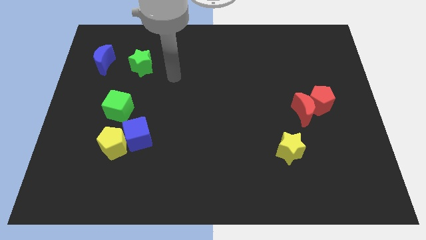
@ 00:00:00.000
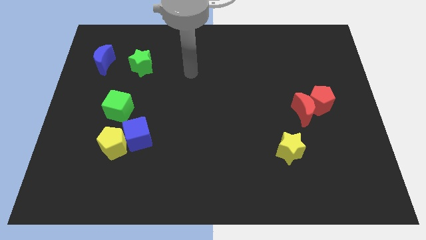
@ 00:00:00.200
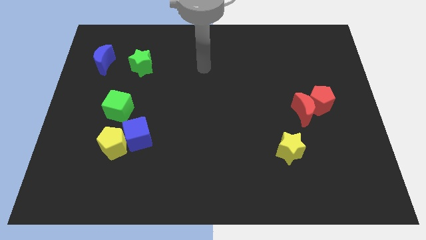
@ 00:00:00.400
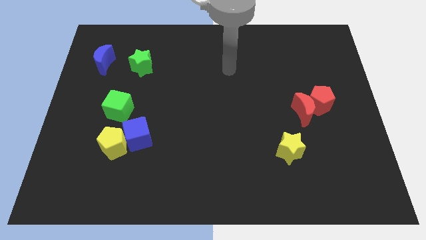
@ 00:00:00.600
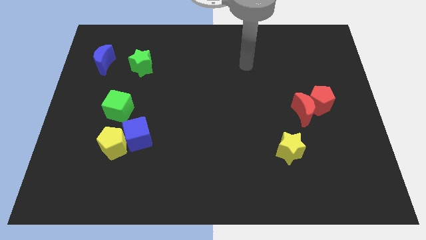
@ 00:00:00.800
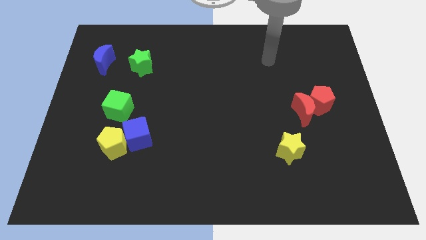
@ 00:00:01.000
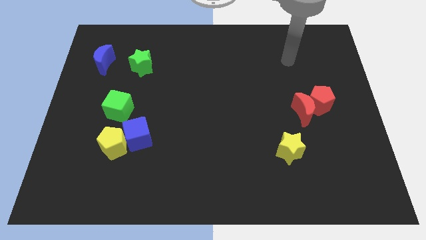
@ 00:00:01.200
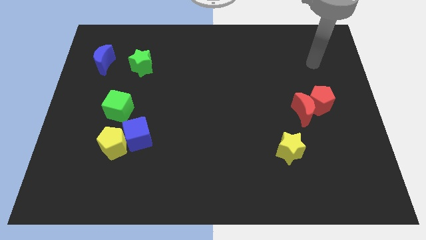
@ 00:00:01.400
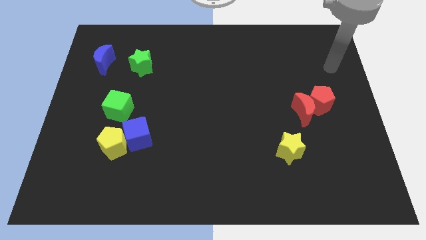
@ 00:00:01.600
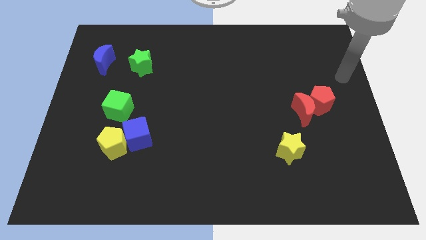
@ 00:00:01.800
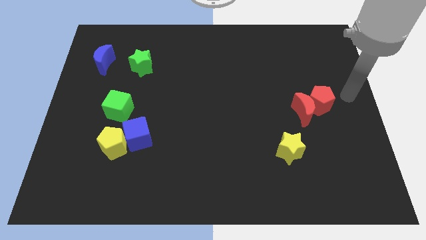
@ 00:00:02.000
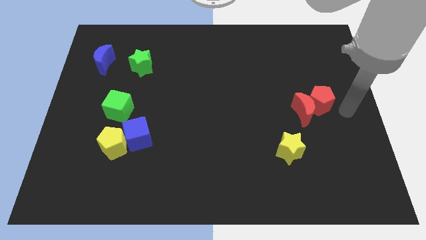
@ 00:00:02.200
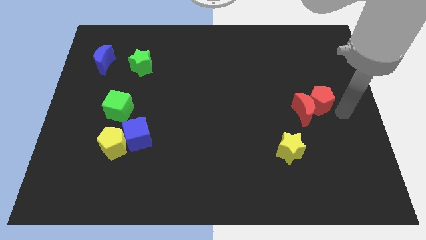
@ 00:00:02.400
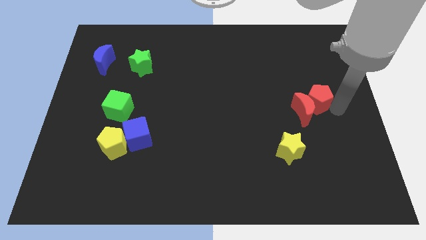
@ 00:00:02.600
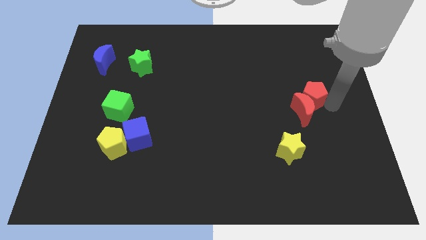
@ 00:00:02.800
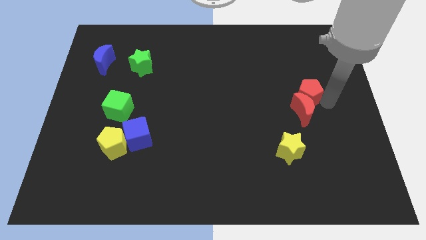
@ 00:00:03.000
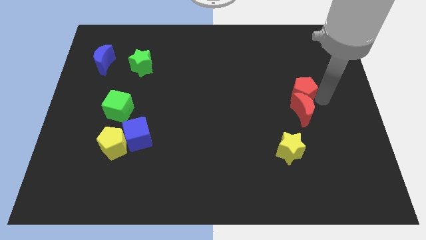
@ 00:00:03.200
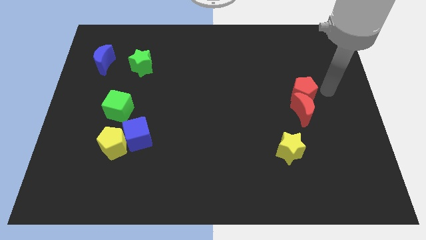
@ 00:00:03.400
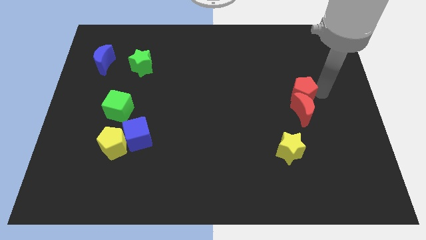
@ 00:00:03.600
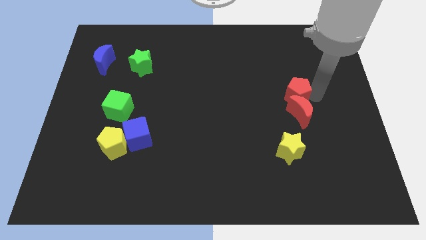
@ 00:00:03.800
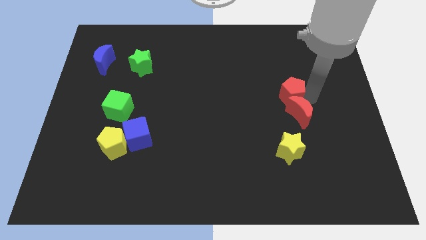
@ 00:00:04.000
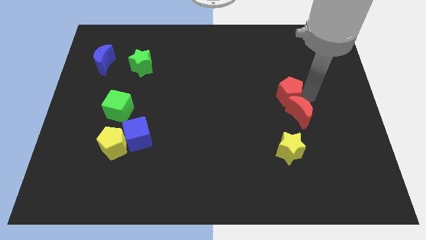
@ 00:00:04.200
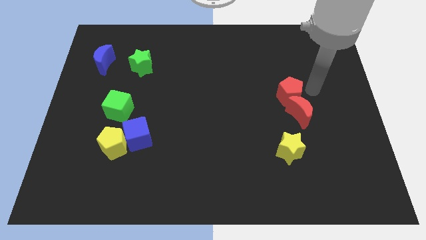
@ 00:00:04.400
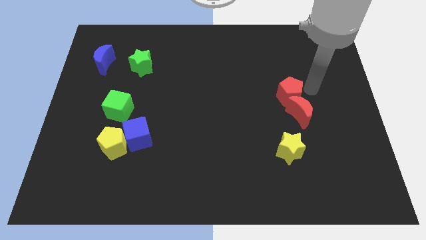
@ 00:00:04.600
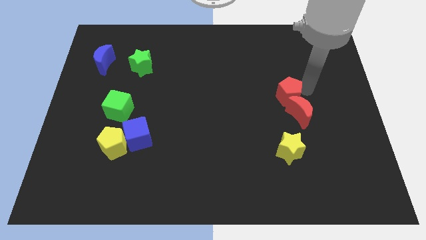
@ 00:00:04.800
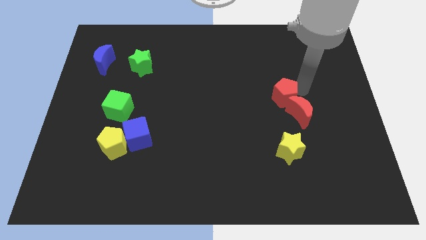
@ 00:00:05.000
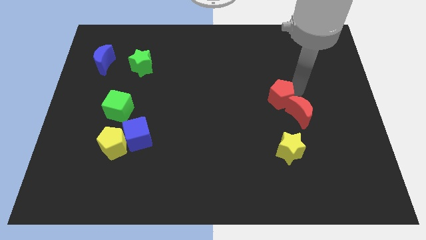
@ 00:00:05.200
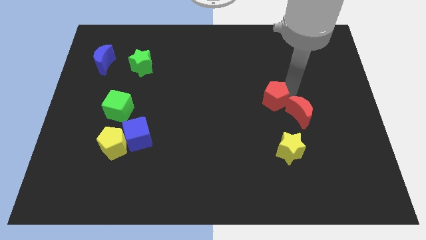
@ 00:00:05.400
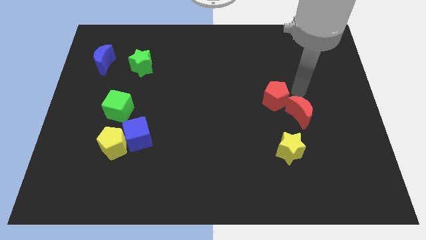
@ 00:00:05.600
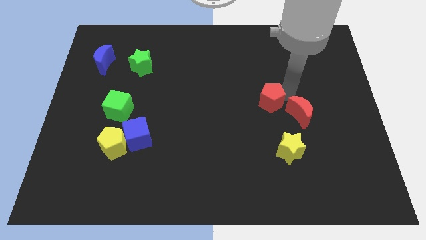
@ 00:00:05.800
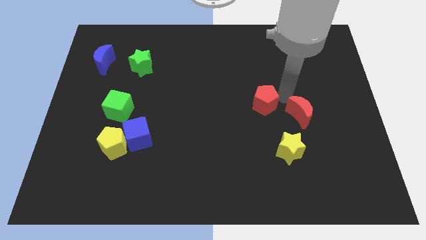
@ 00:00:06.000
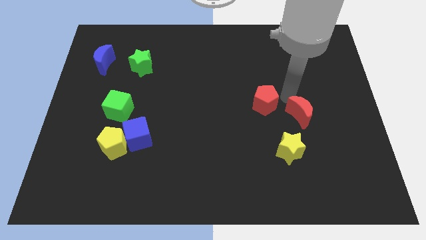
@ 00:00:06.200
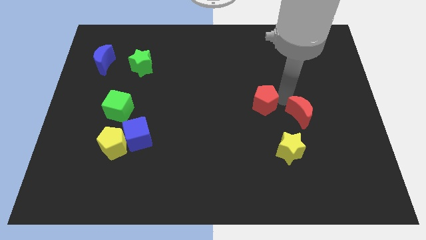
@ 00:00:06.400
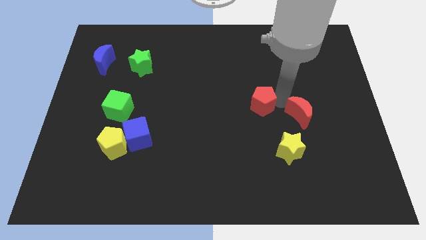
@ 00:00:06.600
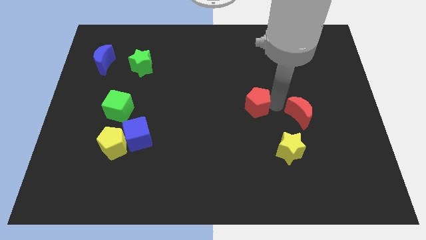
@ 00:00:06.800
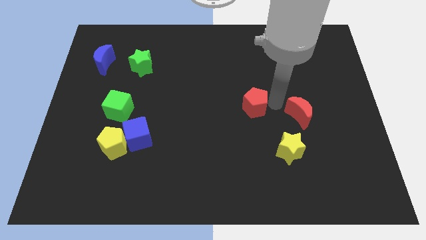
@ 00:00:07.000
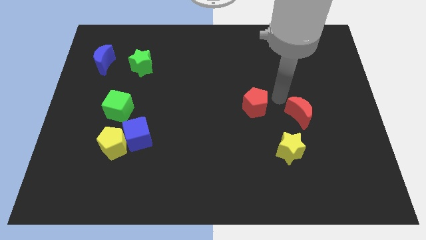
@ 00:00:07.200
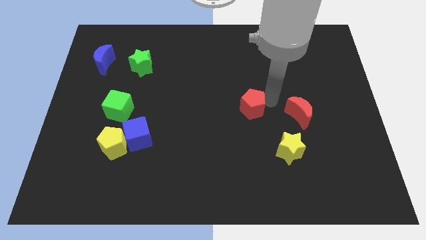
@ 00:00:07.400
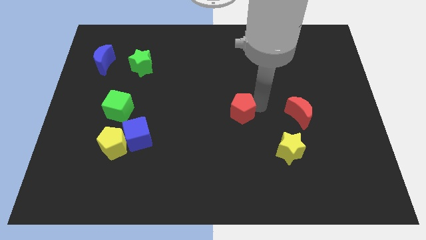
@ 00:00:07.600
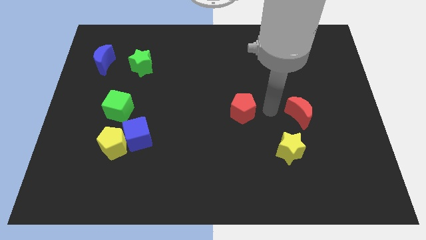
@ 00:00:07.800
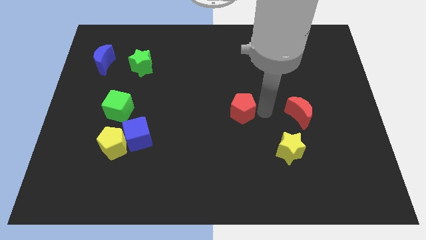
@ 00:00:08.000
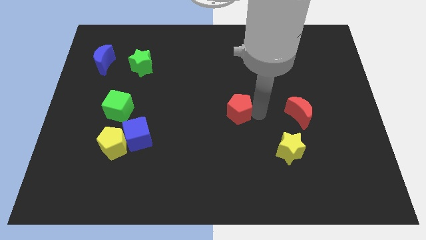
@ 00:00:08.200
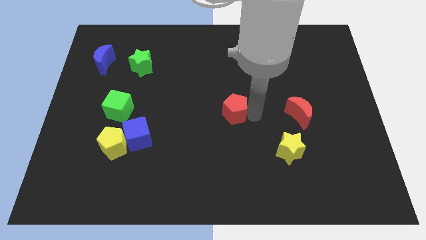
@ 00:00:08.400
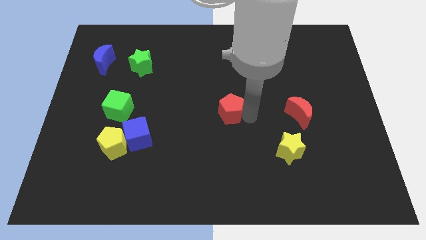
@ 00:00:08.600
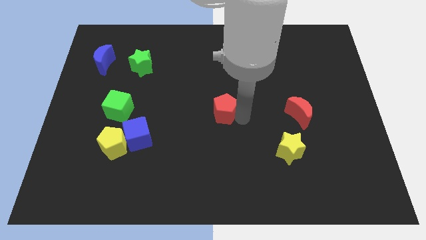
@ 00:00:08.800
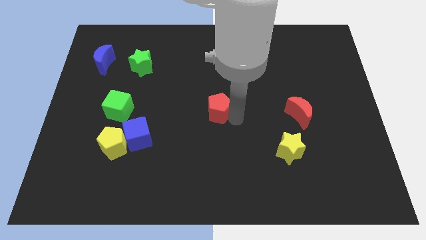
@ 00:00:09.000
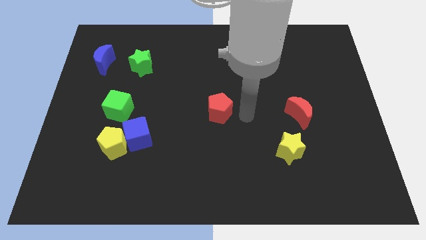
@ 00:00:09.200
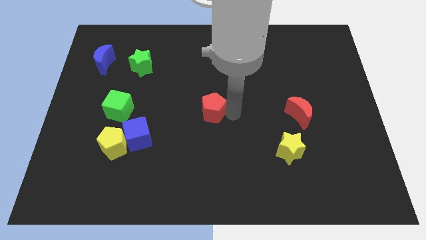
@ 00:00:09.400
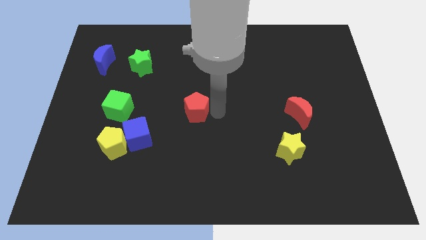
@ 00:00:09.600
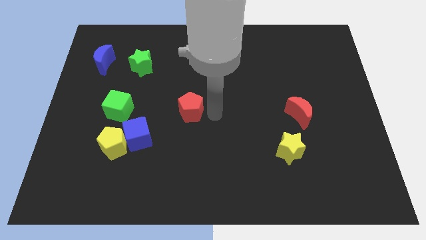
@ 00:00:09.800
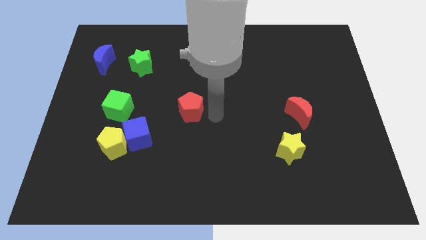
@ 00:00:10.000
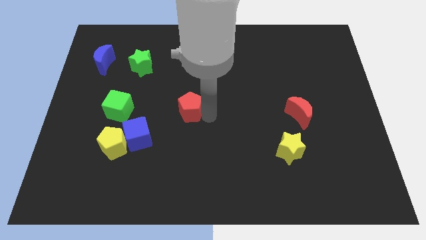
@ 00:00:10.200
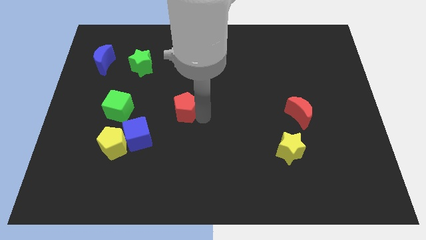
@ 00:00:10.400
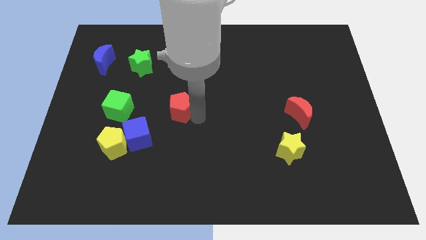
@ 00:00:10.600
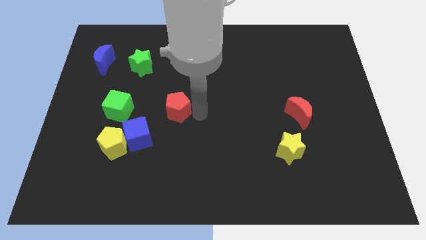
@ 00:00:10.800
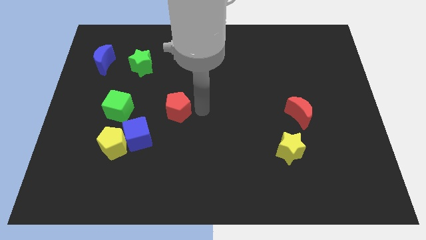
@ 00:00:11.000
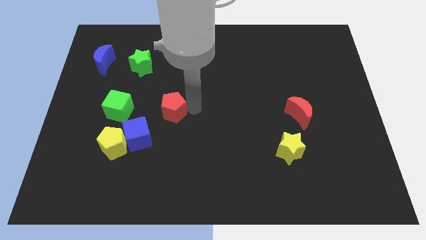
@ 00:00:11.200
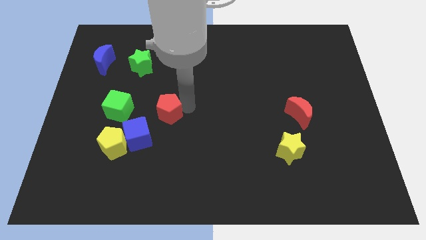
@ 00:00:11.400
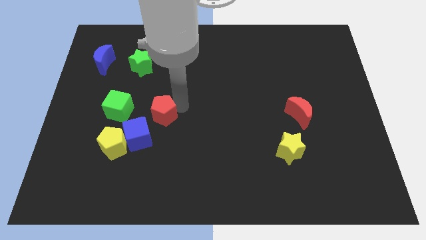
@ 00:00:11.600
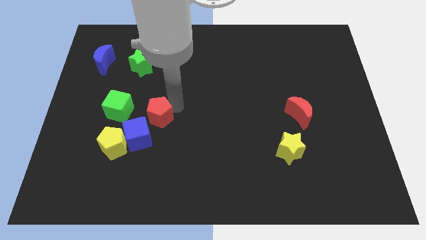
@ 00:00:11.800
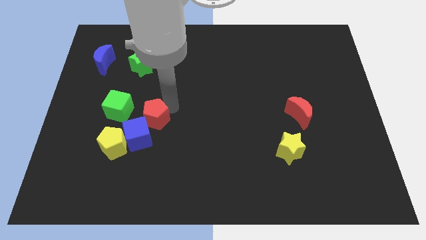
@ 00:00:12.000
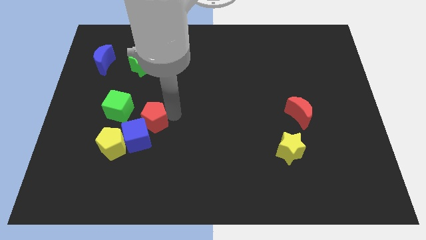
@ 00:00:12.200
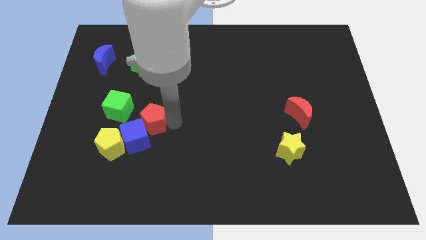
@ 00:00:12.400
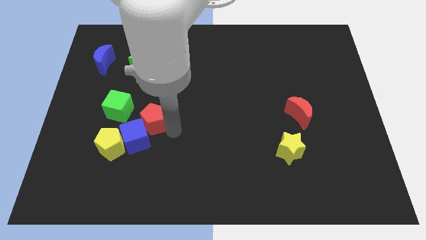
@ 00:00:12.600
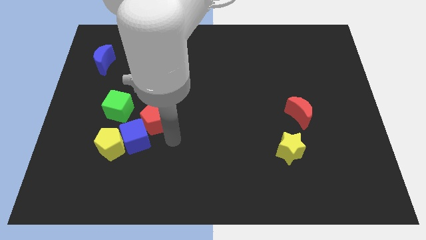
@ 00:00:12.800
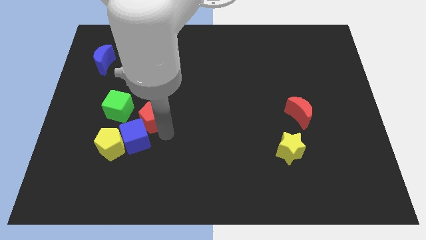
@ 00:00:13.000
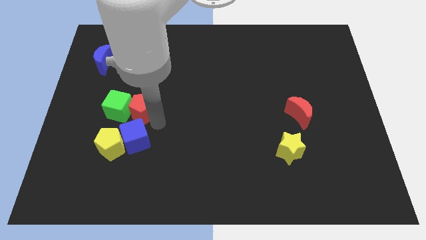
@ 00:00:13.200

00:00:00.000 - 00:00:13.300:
put the red pentagon next to the green cube
